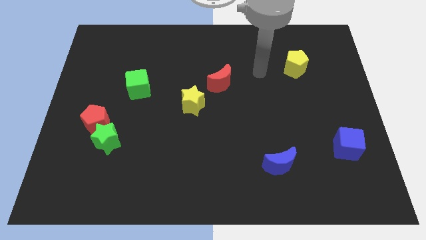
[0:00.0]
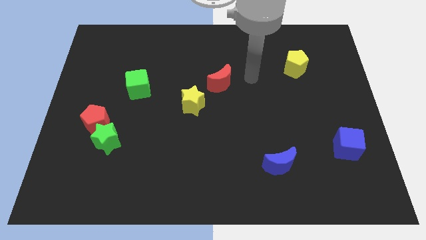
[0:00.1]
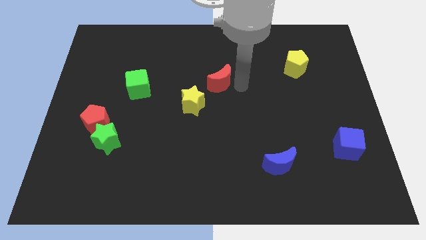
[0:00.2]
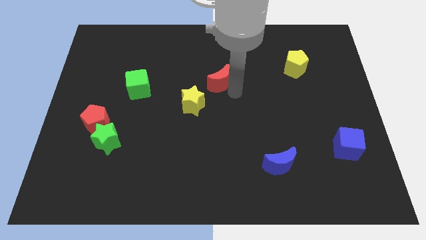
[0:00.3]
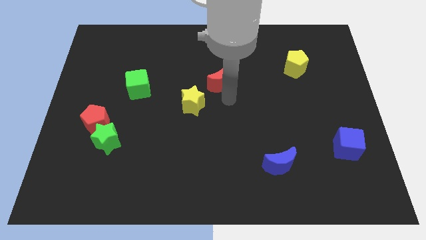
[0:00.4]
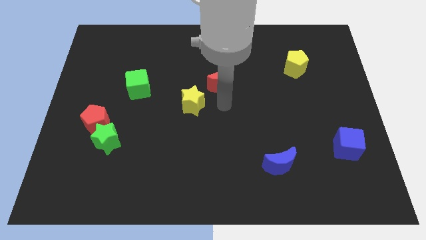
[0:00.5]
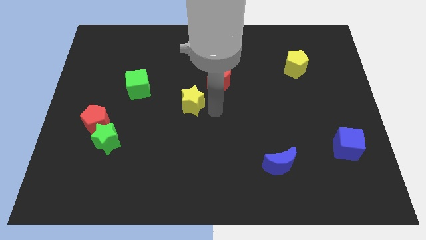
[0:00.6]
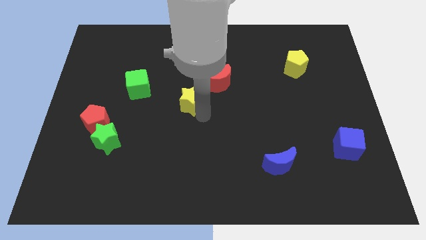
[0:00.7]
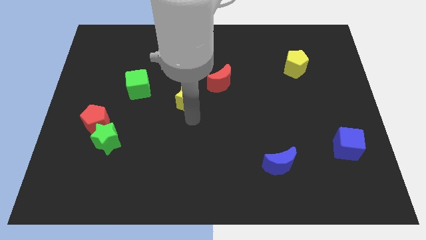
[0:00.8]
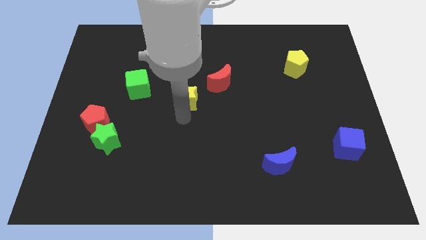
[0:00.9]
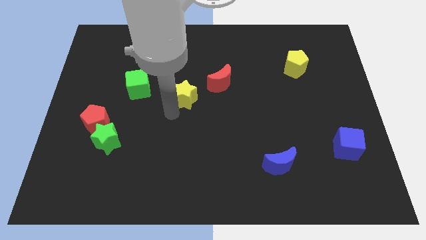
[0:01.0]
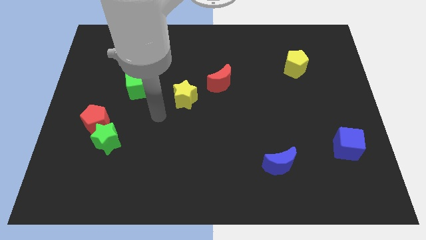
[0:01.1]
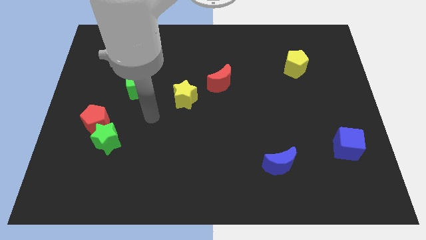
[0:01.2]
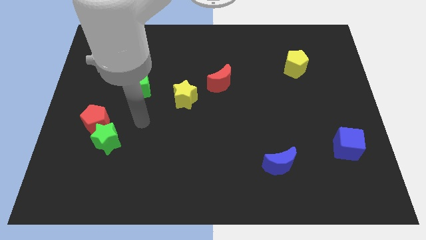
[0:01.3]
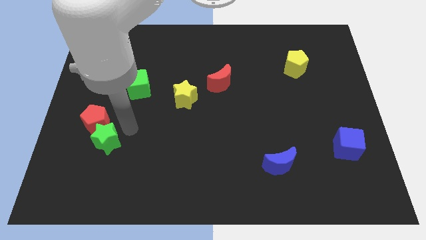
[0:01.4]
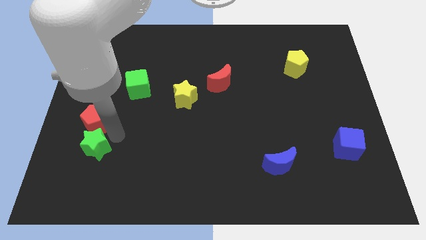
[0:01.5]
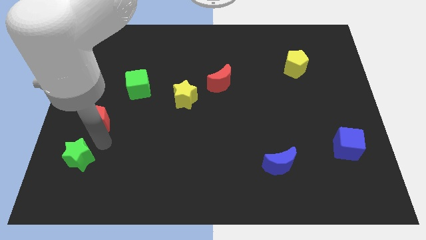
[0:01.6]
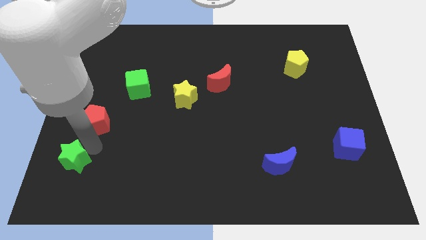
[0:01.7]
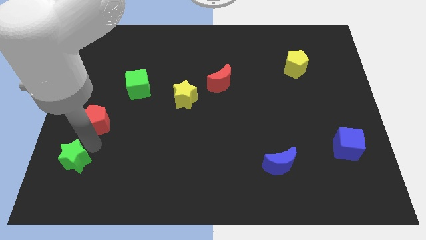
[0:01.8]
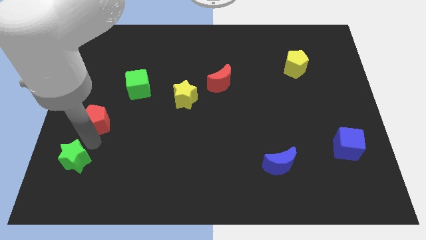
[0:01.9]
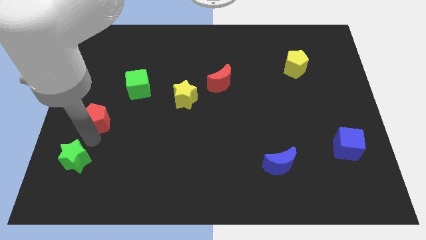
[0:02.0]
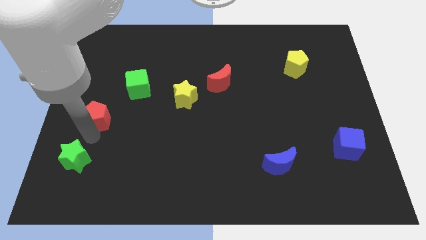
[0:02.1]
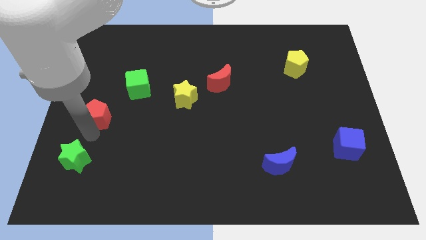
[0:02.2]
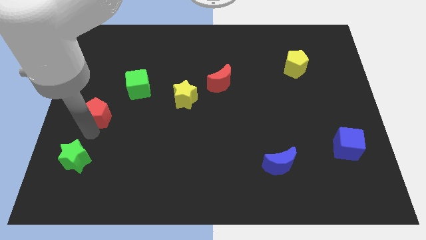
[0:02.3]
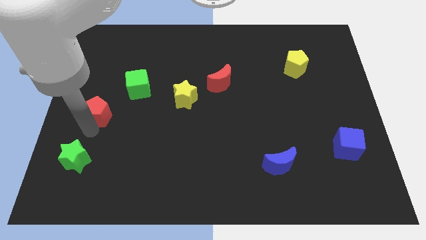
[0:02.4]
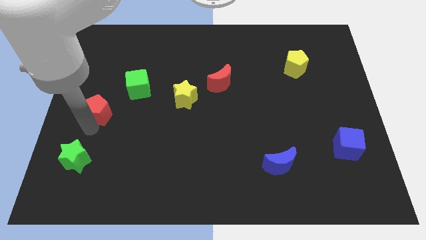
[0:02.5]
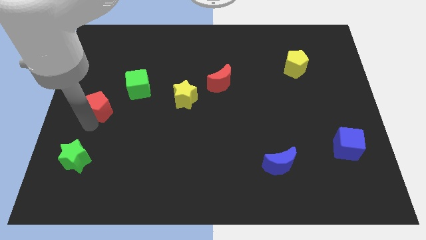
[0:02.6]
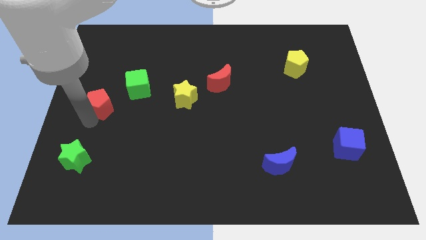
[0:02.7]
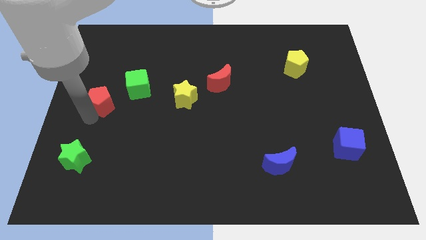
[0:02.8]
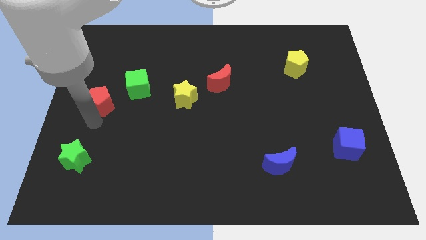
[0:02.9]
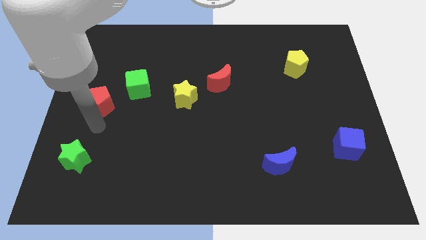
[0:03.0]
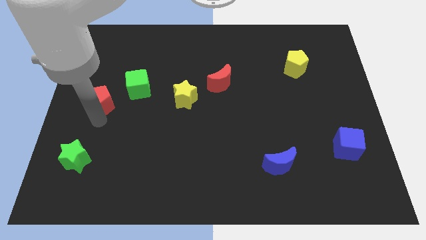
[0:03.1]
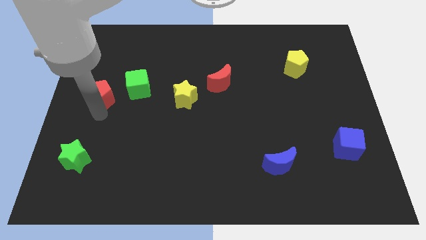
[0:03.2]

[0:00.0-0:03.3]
slightly push the red pentagon up

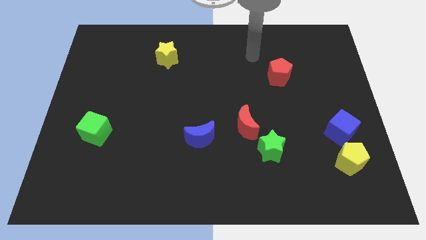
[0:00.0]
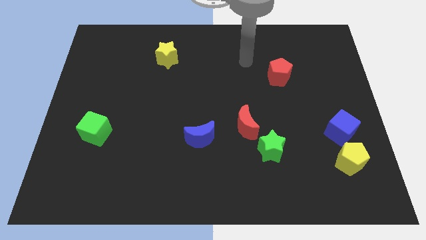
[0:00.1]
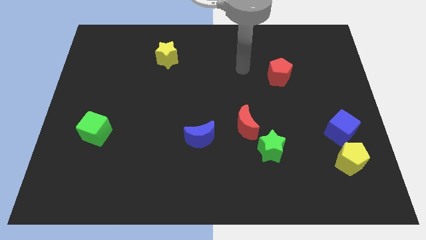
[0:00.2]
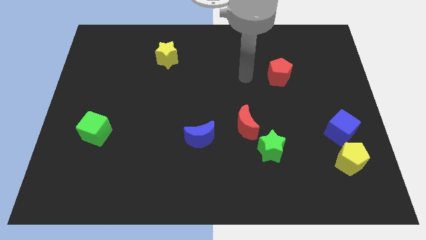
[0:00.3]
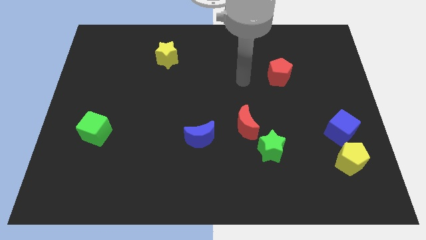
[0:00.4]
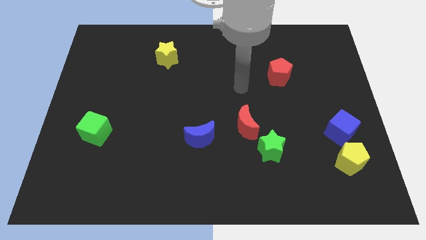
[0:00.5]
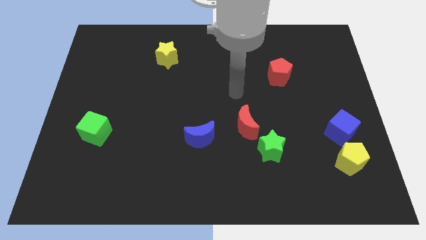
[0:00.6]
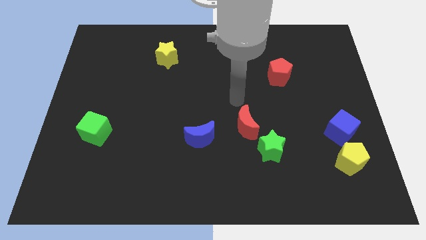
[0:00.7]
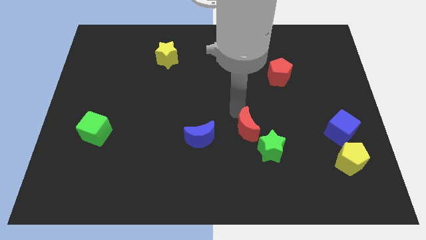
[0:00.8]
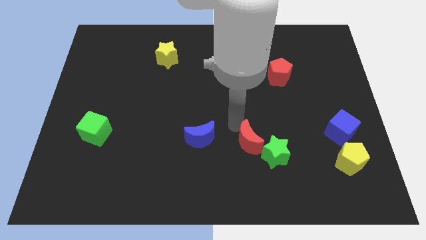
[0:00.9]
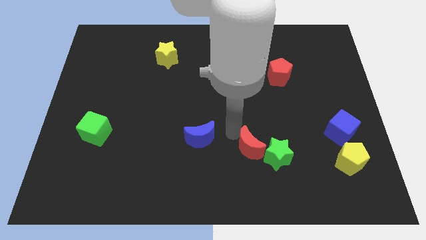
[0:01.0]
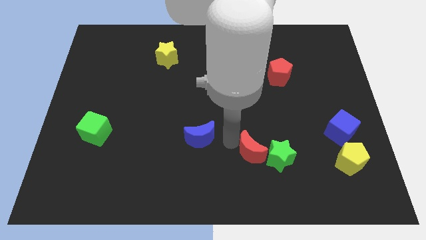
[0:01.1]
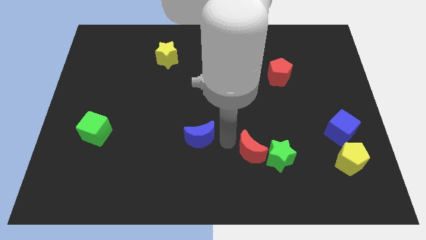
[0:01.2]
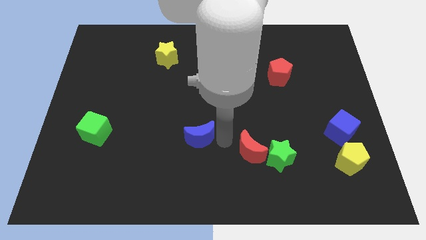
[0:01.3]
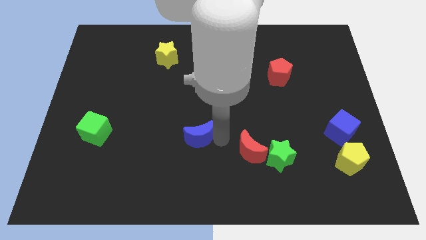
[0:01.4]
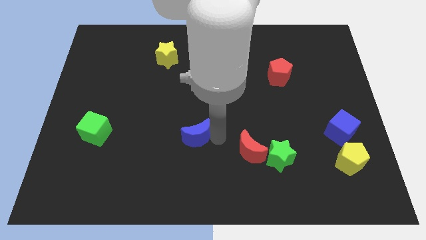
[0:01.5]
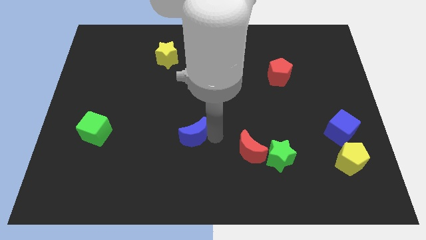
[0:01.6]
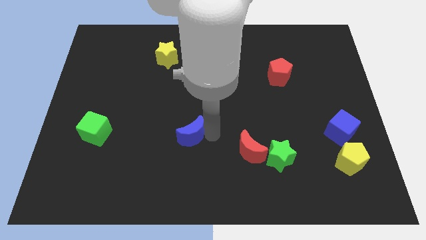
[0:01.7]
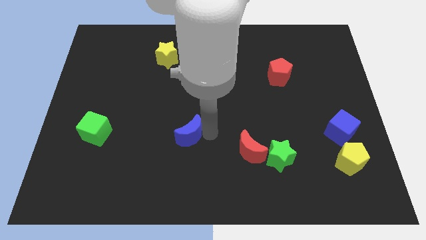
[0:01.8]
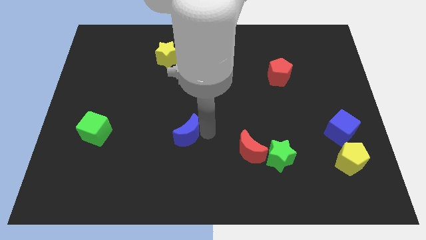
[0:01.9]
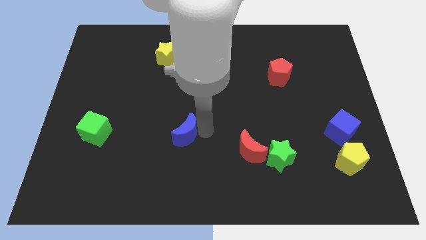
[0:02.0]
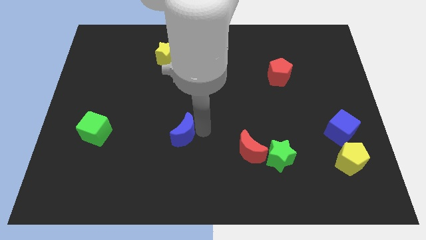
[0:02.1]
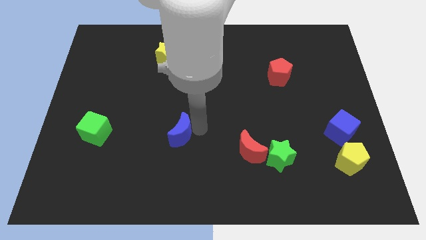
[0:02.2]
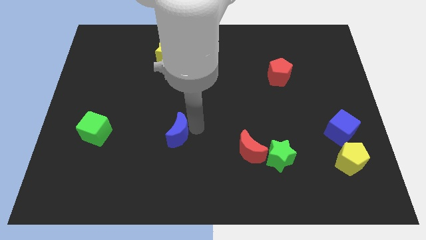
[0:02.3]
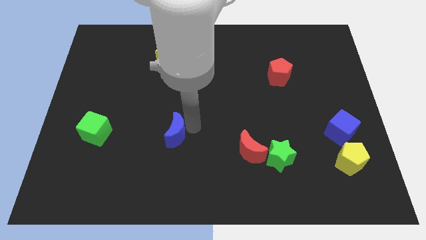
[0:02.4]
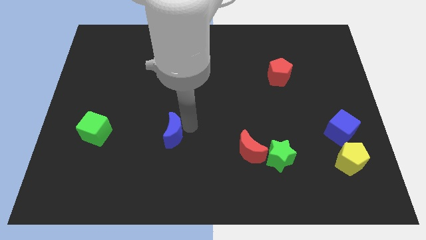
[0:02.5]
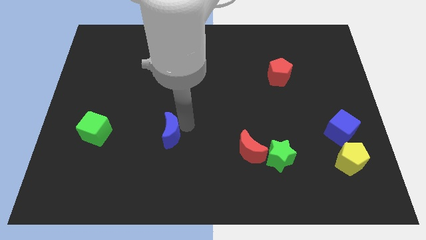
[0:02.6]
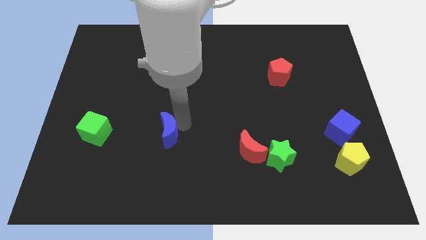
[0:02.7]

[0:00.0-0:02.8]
slide the blue moon a bit left

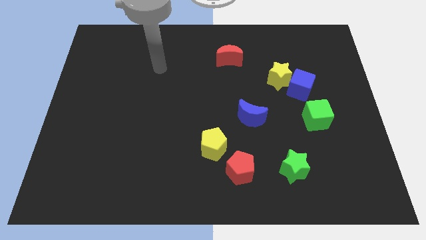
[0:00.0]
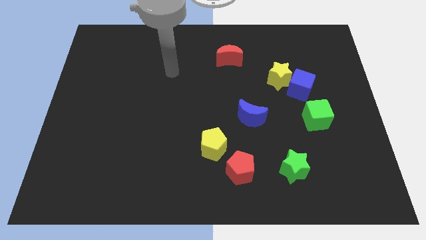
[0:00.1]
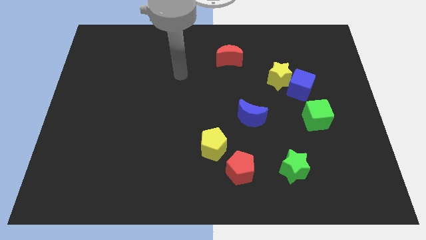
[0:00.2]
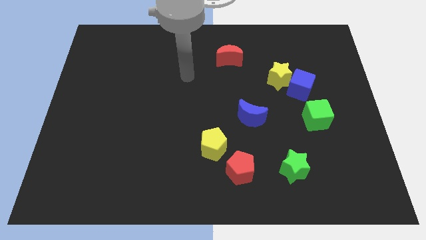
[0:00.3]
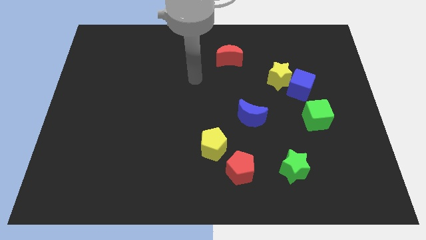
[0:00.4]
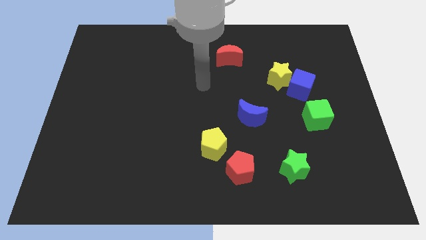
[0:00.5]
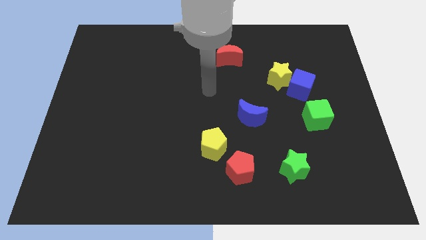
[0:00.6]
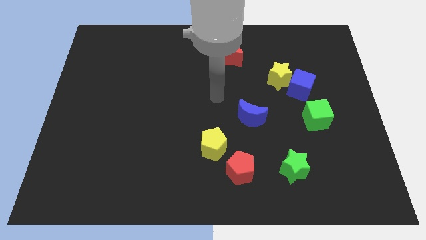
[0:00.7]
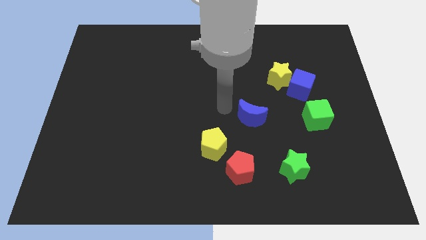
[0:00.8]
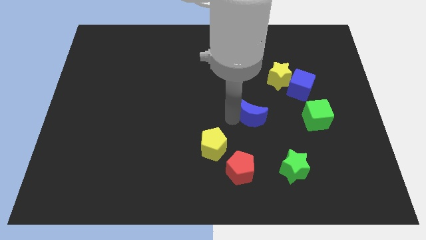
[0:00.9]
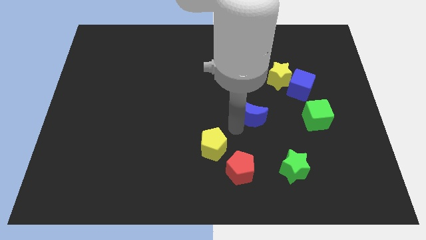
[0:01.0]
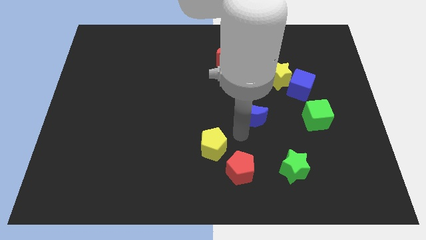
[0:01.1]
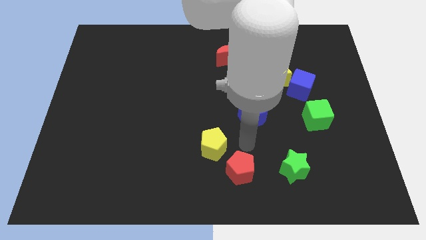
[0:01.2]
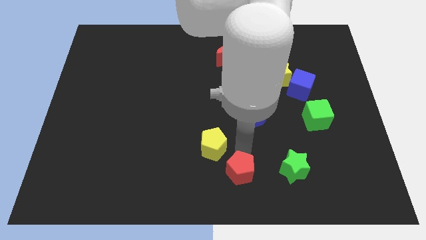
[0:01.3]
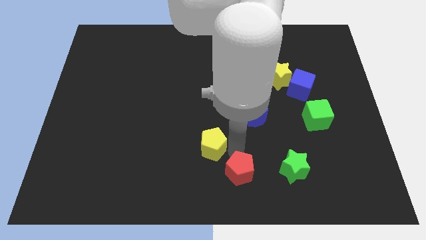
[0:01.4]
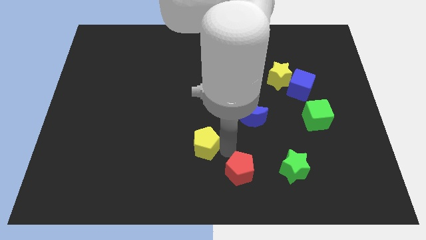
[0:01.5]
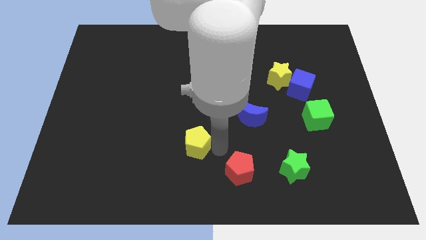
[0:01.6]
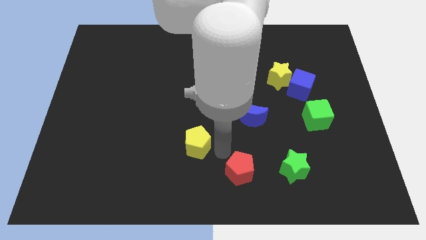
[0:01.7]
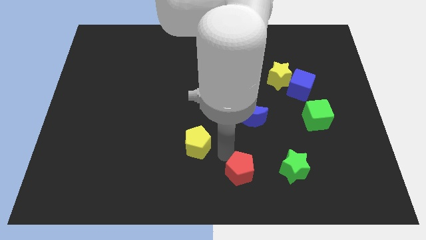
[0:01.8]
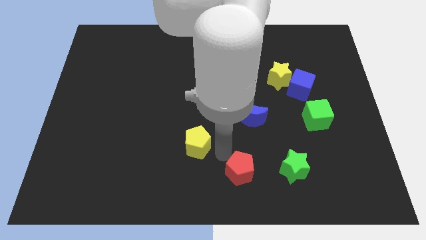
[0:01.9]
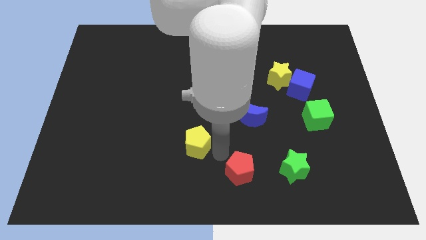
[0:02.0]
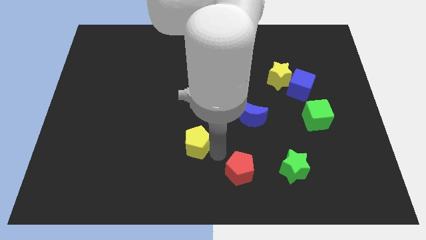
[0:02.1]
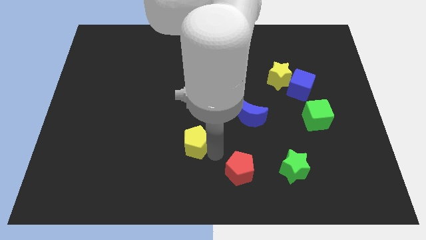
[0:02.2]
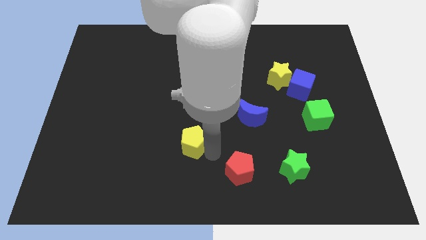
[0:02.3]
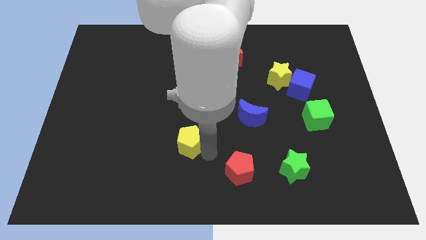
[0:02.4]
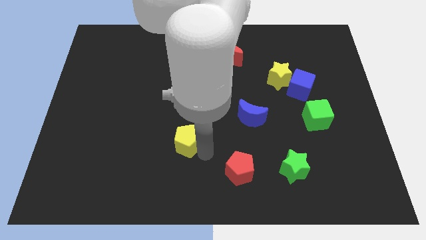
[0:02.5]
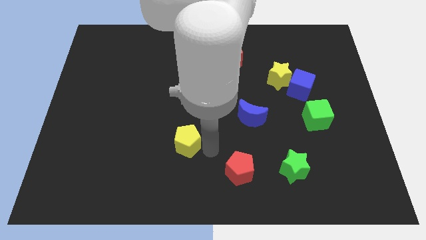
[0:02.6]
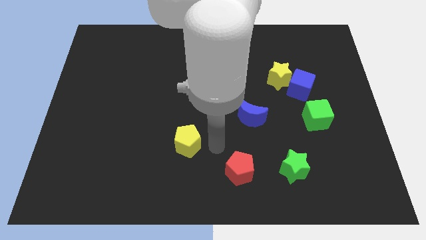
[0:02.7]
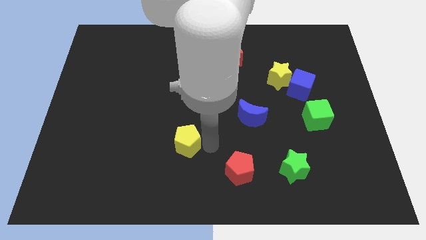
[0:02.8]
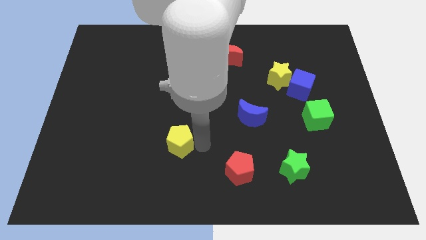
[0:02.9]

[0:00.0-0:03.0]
slide the yellow pentagon left a little bit
